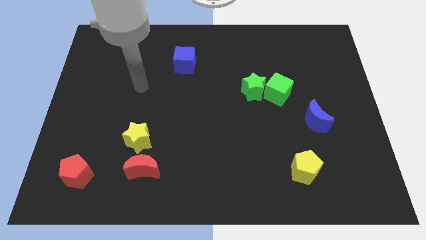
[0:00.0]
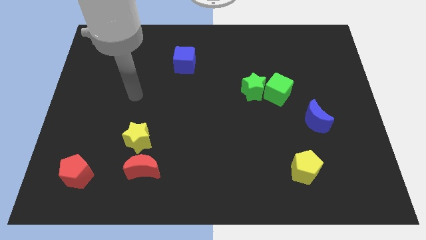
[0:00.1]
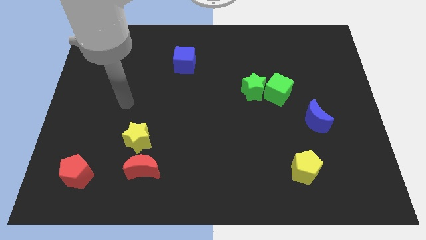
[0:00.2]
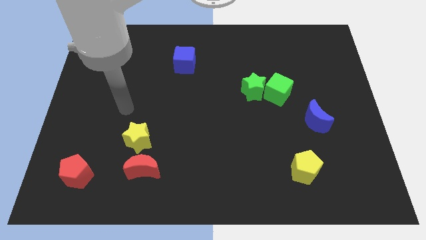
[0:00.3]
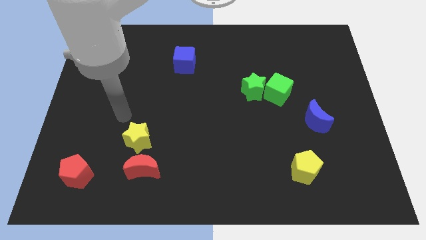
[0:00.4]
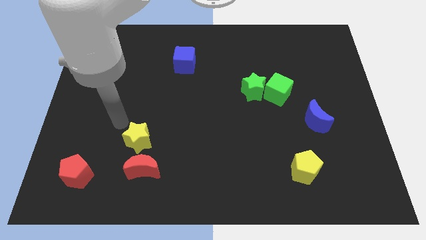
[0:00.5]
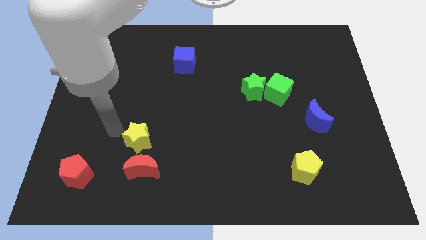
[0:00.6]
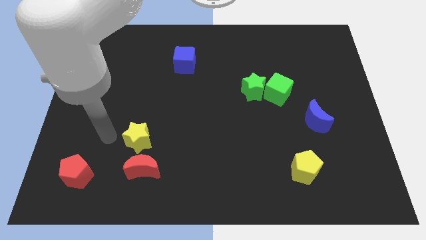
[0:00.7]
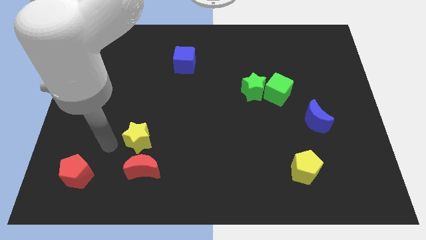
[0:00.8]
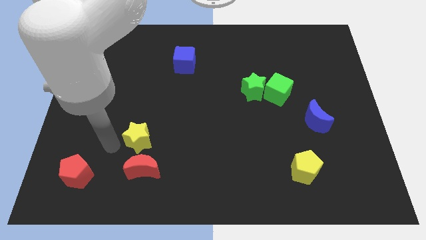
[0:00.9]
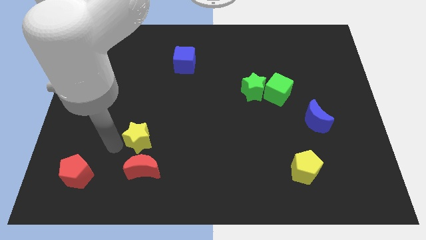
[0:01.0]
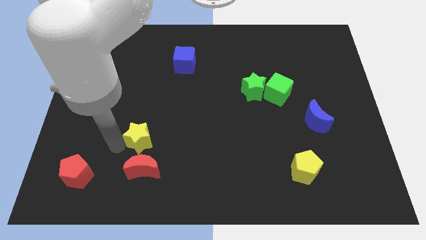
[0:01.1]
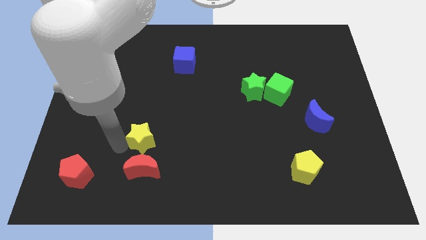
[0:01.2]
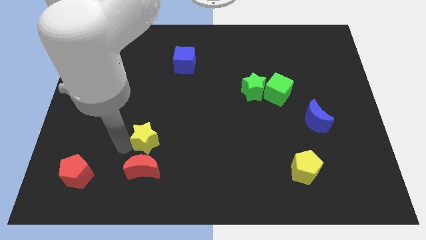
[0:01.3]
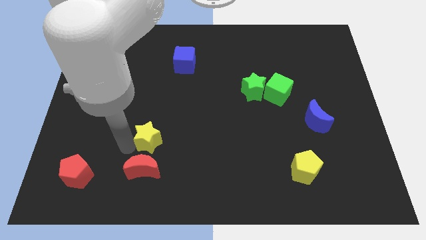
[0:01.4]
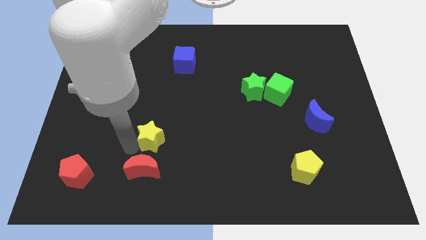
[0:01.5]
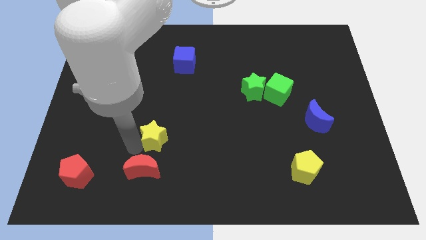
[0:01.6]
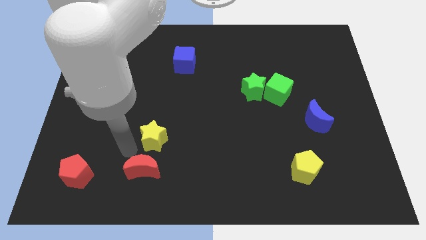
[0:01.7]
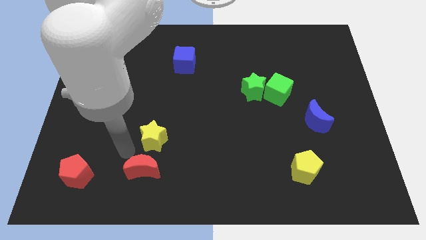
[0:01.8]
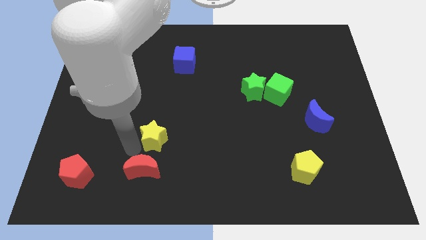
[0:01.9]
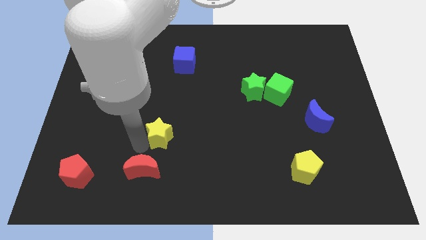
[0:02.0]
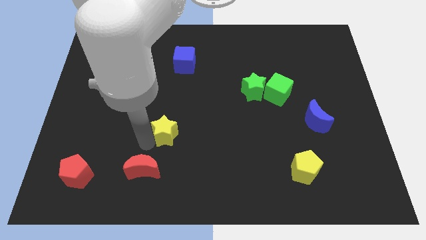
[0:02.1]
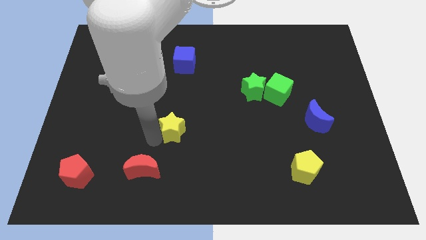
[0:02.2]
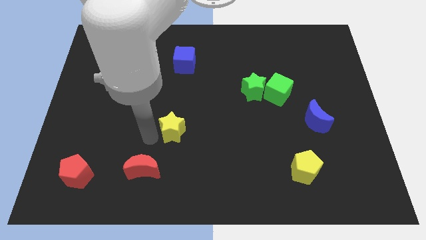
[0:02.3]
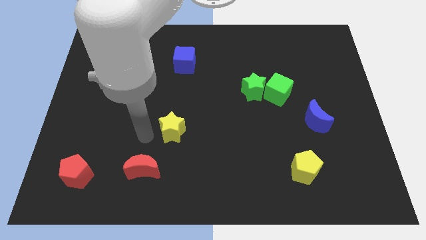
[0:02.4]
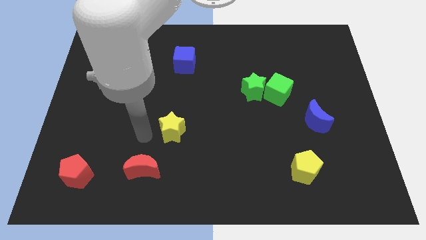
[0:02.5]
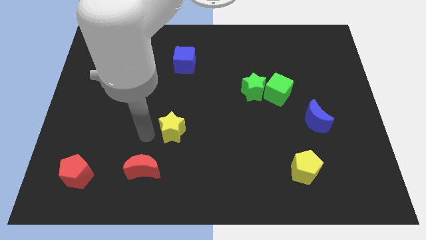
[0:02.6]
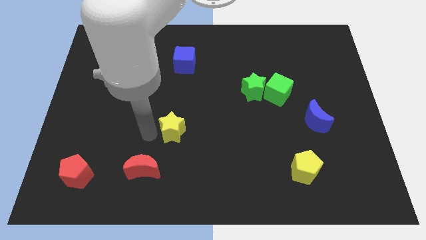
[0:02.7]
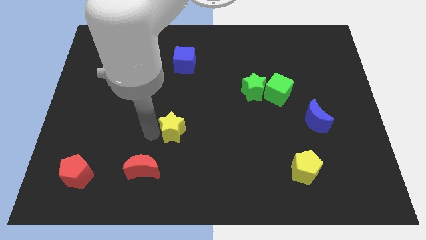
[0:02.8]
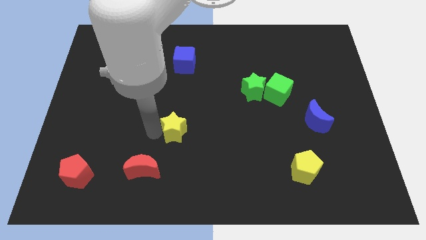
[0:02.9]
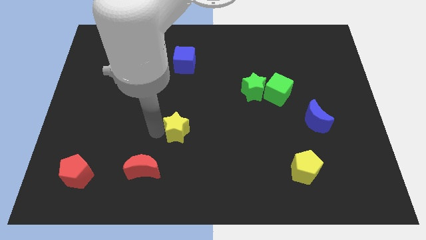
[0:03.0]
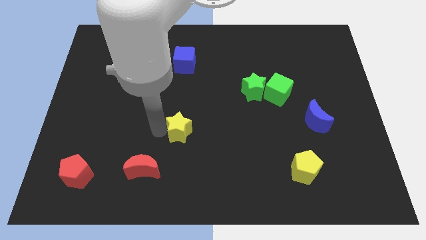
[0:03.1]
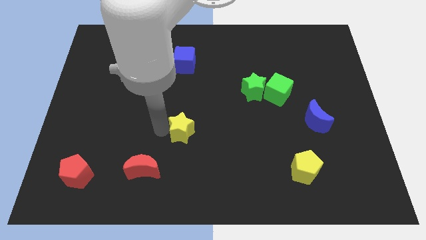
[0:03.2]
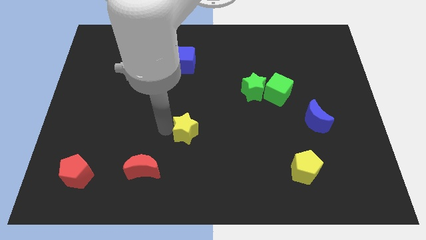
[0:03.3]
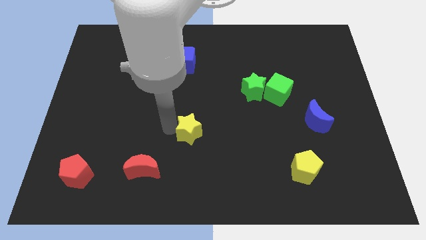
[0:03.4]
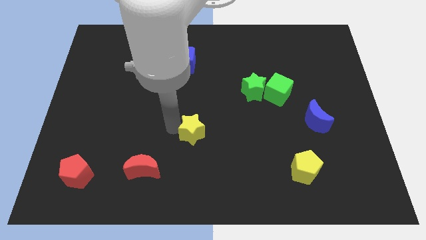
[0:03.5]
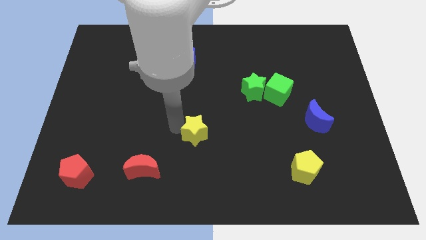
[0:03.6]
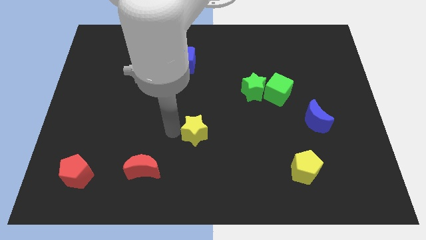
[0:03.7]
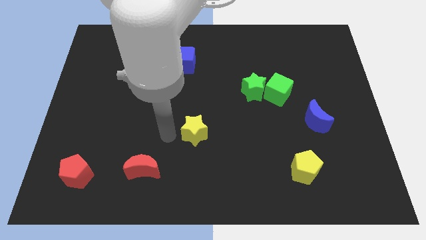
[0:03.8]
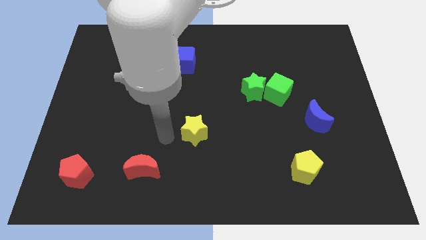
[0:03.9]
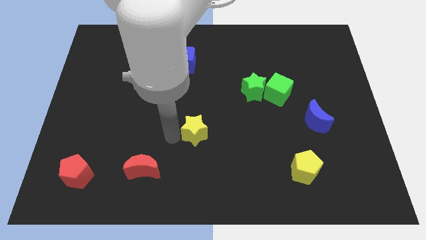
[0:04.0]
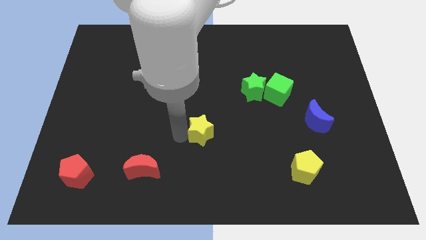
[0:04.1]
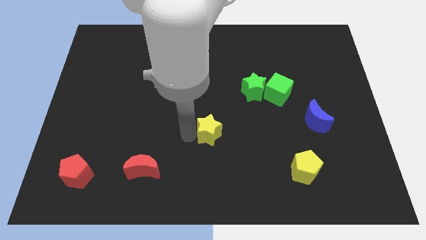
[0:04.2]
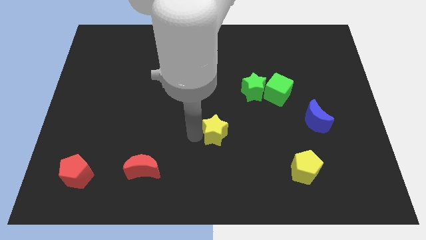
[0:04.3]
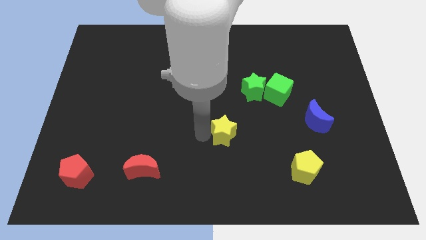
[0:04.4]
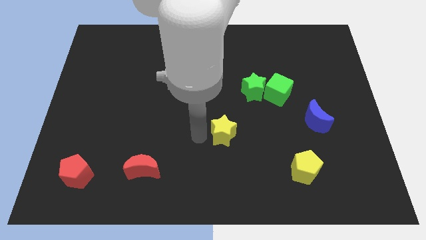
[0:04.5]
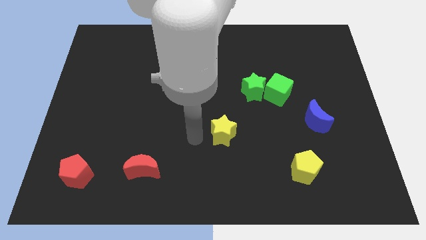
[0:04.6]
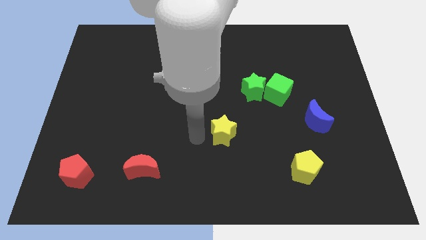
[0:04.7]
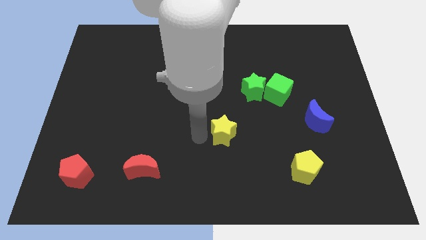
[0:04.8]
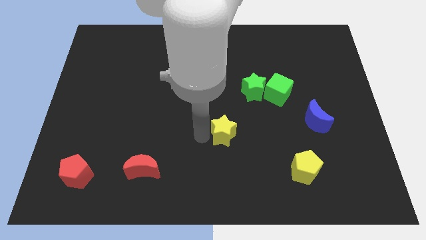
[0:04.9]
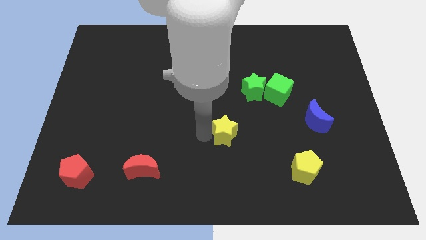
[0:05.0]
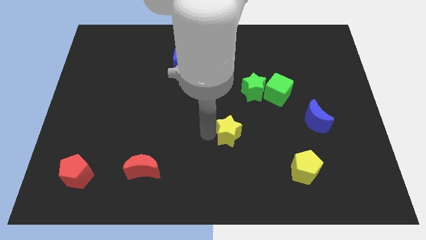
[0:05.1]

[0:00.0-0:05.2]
push the yellow star right

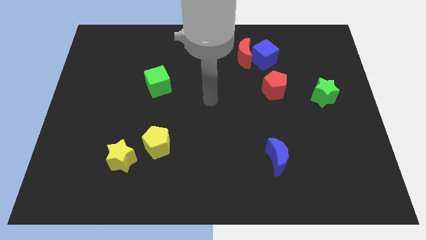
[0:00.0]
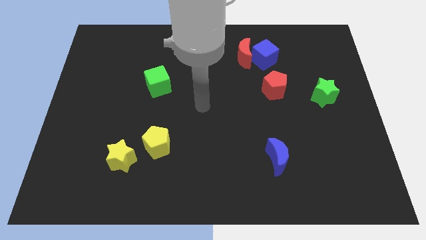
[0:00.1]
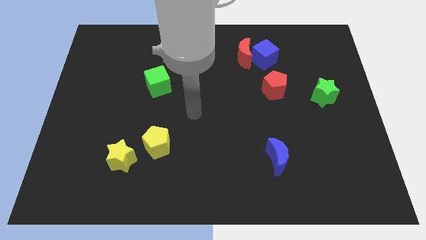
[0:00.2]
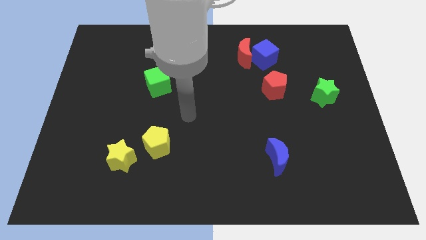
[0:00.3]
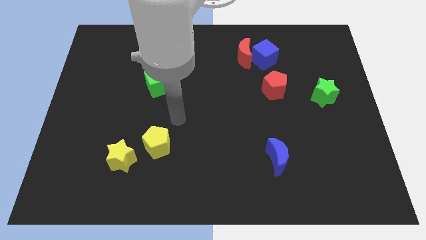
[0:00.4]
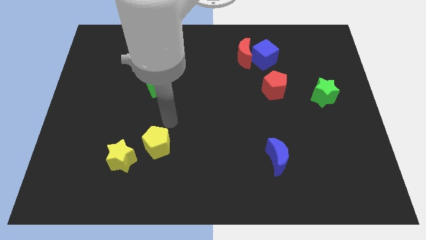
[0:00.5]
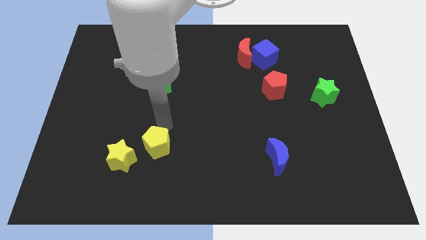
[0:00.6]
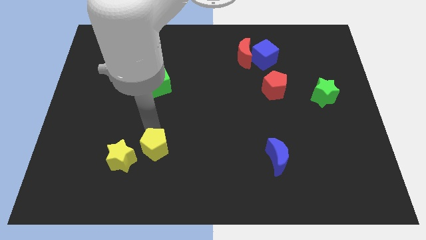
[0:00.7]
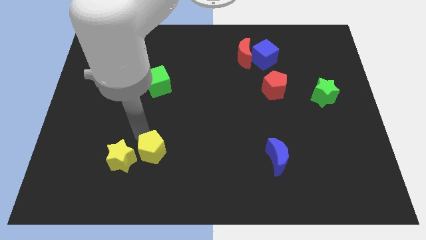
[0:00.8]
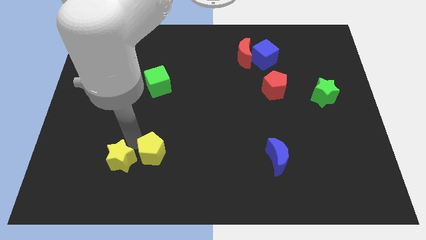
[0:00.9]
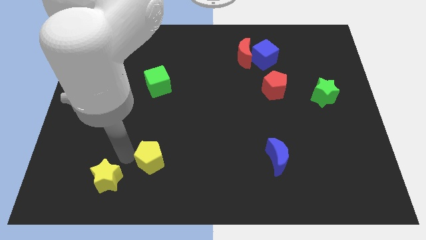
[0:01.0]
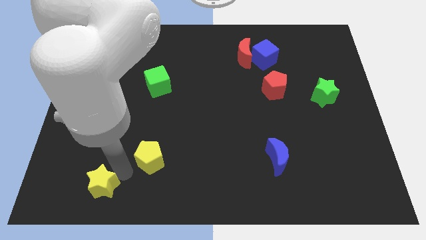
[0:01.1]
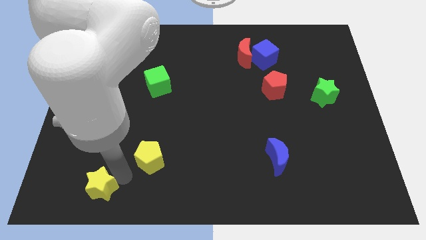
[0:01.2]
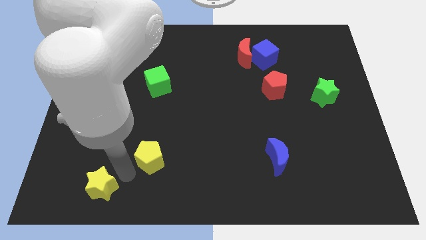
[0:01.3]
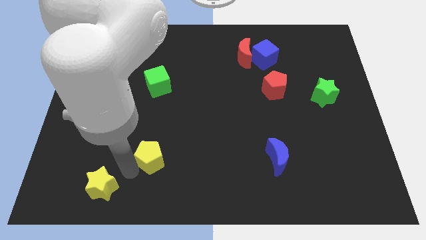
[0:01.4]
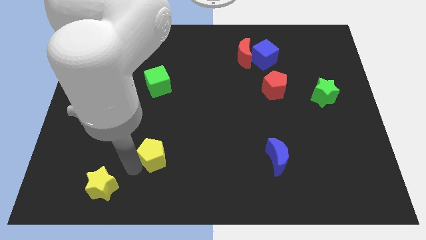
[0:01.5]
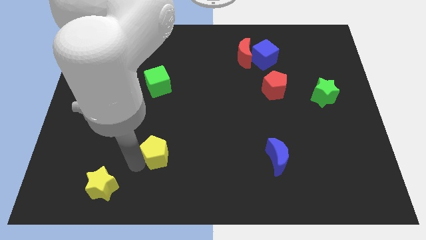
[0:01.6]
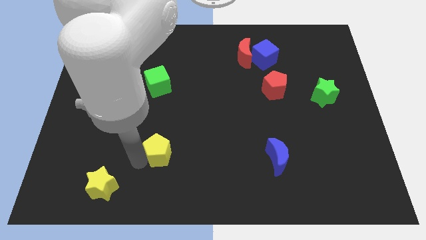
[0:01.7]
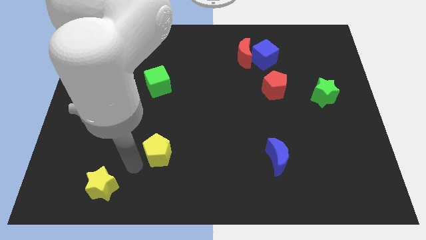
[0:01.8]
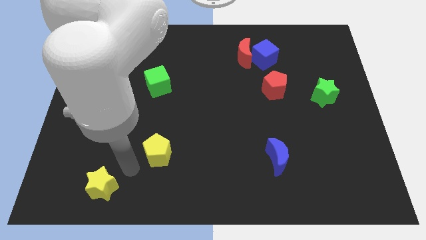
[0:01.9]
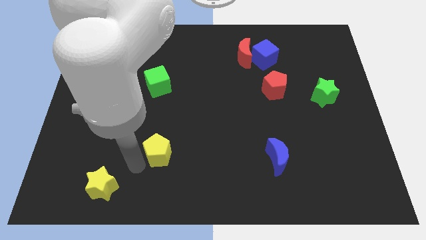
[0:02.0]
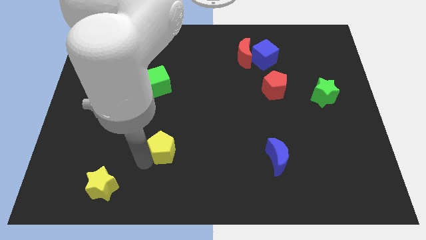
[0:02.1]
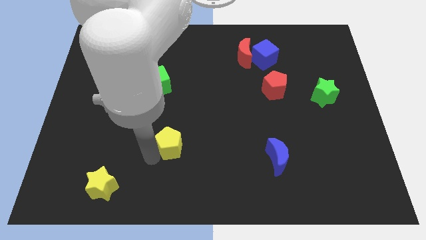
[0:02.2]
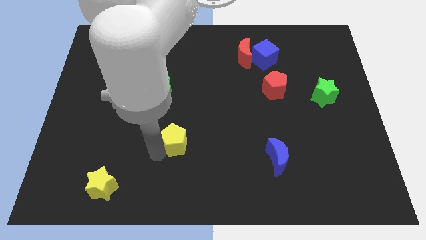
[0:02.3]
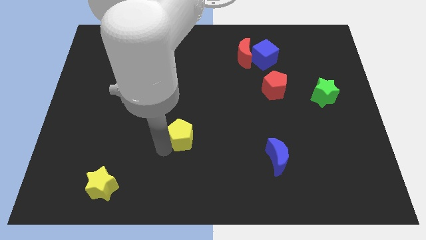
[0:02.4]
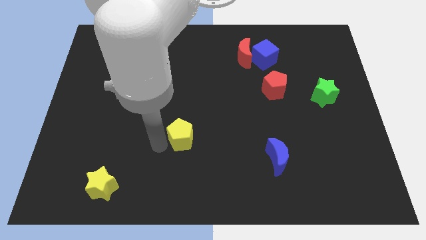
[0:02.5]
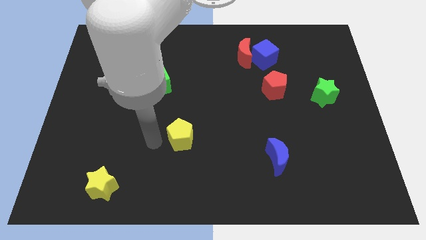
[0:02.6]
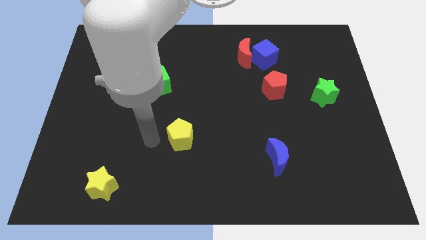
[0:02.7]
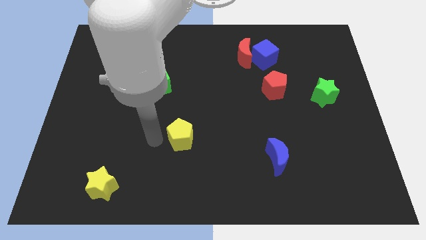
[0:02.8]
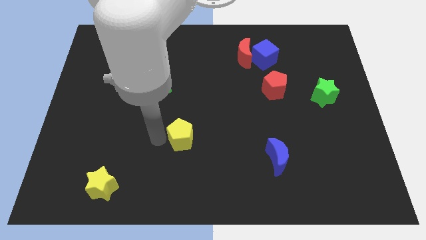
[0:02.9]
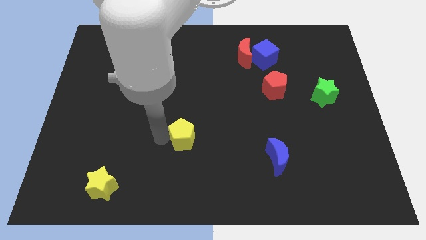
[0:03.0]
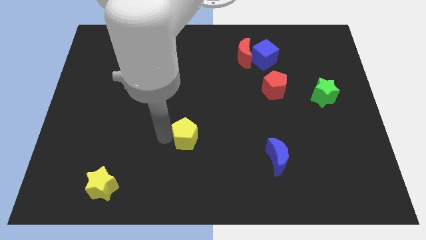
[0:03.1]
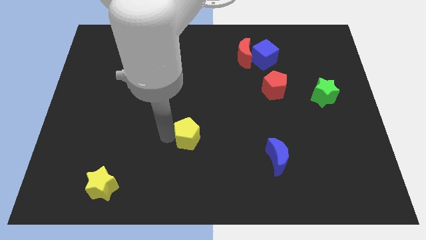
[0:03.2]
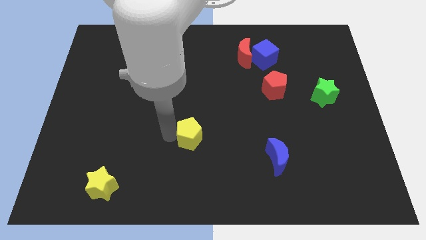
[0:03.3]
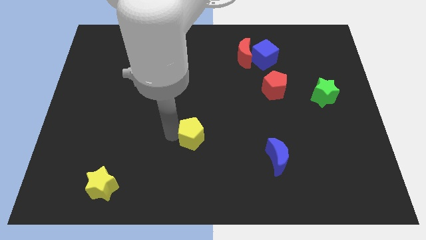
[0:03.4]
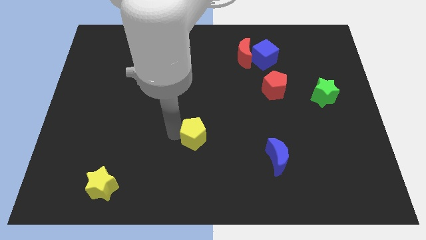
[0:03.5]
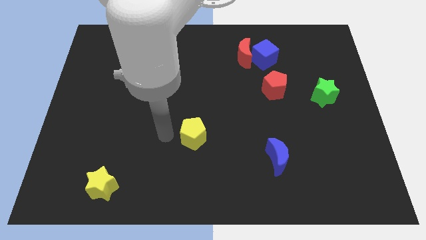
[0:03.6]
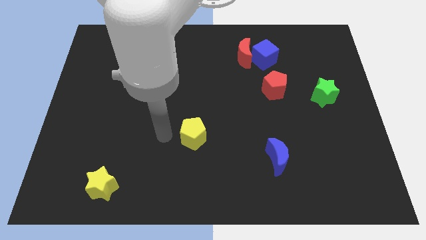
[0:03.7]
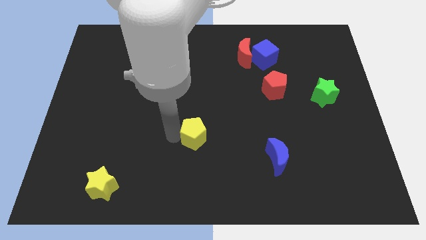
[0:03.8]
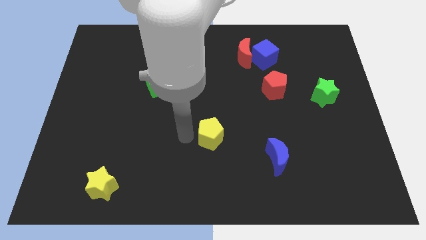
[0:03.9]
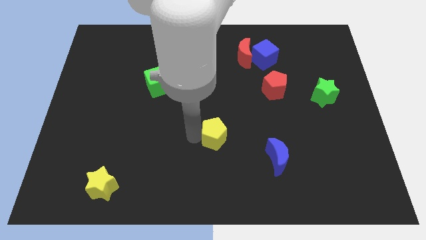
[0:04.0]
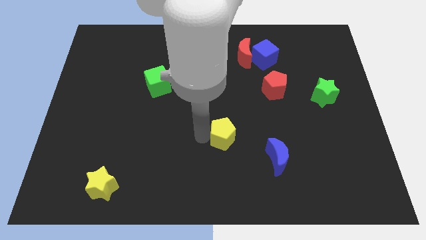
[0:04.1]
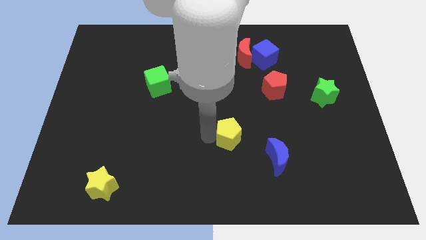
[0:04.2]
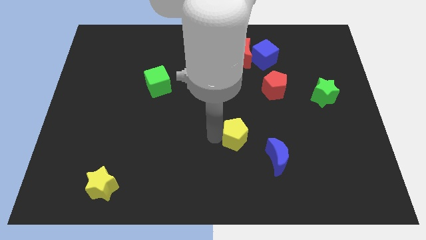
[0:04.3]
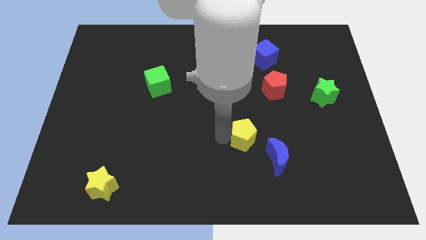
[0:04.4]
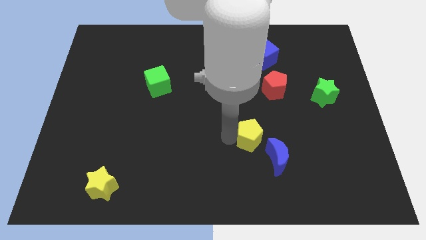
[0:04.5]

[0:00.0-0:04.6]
slide the yellow pentagon right
